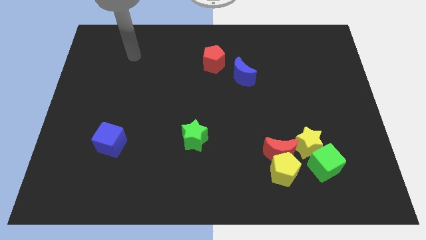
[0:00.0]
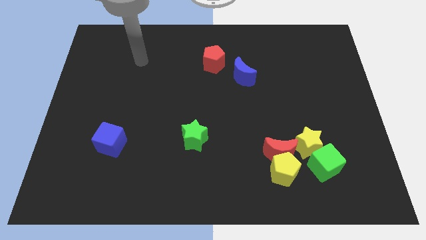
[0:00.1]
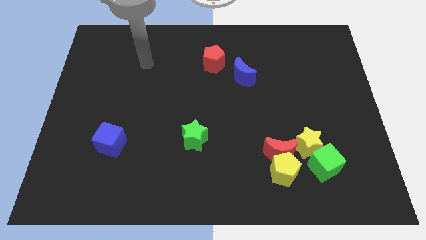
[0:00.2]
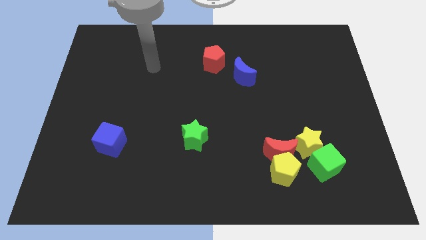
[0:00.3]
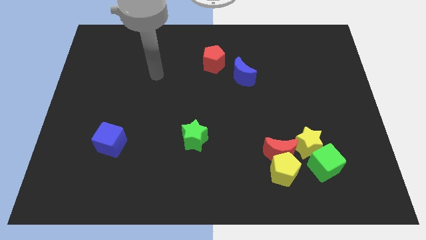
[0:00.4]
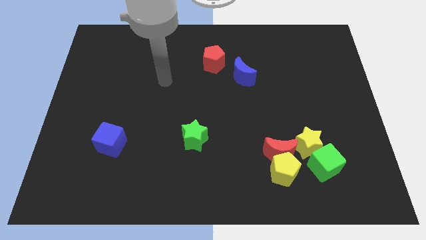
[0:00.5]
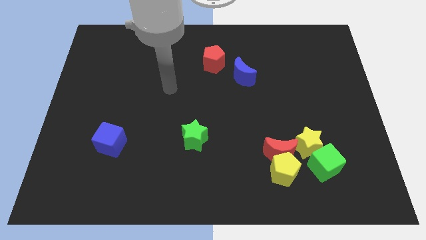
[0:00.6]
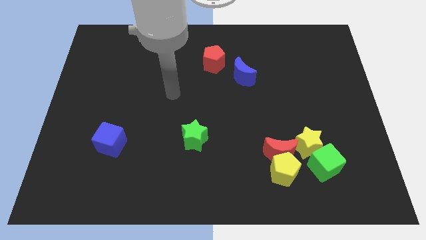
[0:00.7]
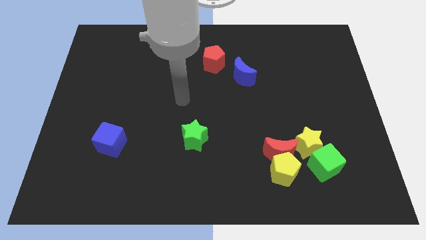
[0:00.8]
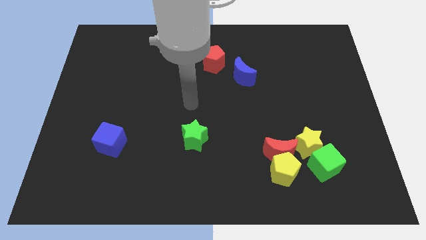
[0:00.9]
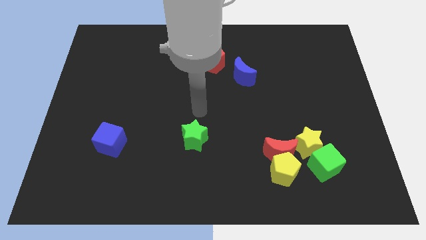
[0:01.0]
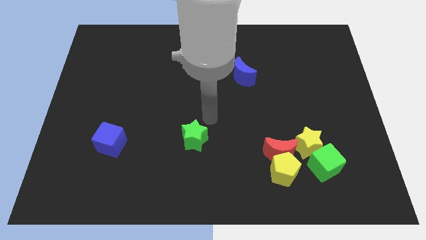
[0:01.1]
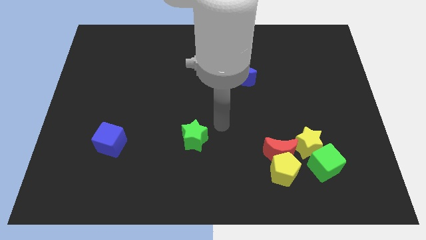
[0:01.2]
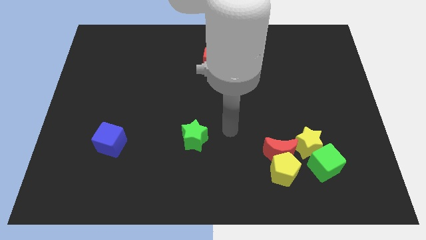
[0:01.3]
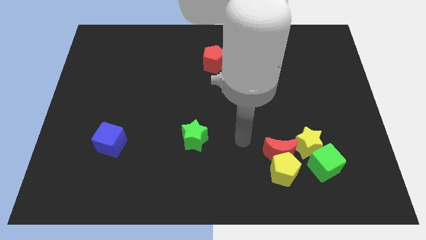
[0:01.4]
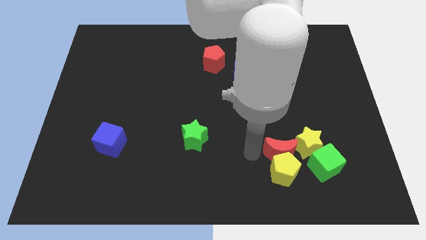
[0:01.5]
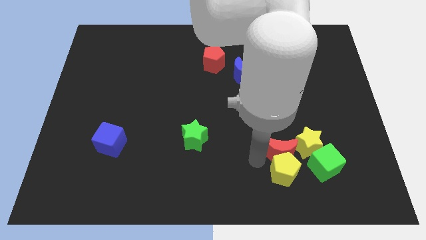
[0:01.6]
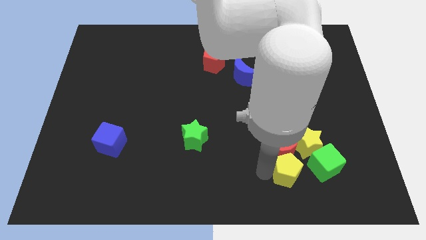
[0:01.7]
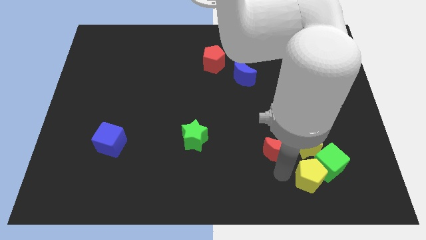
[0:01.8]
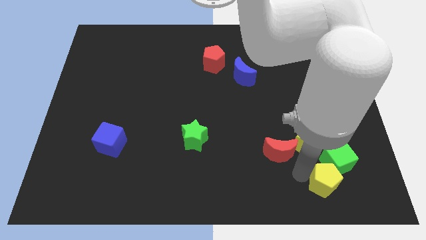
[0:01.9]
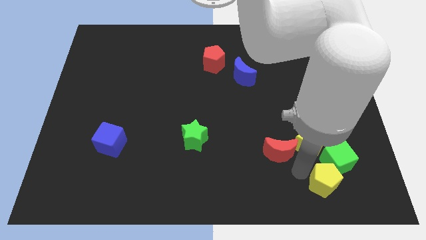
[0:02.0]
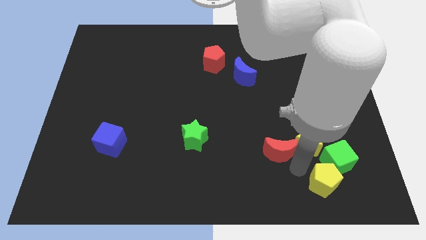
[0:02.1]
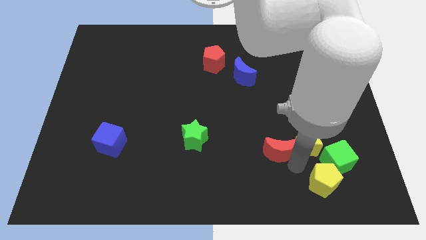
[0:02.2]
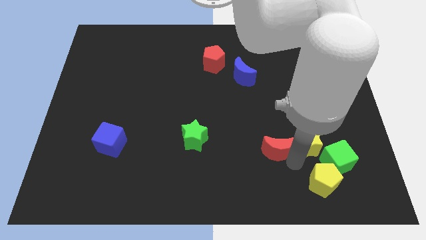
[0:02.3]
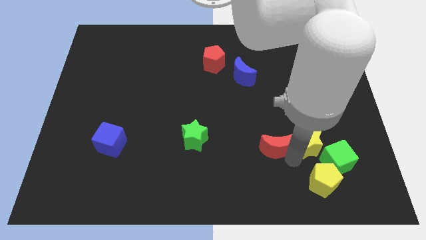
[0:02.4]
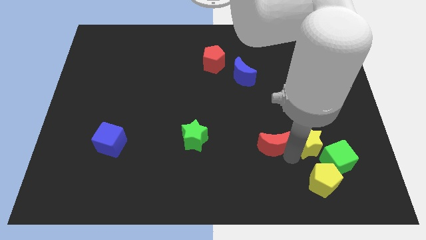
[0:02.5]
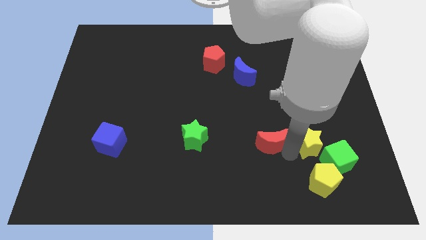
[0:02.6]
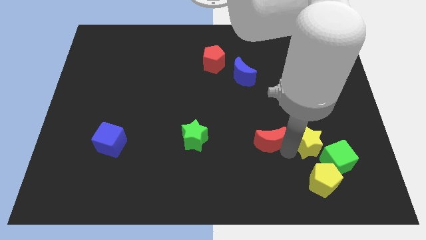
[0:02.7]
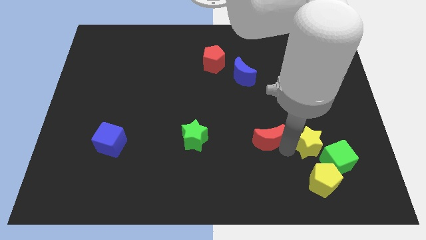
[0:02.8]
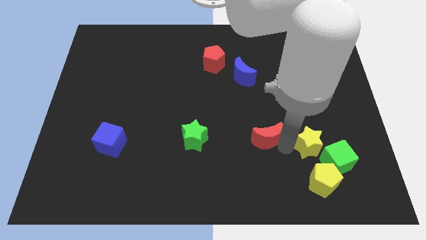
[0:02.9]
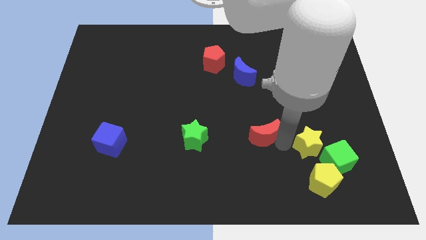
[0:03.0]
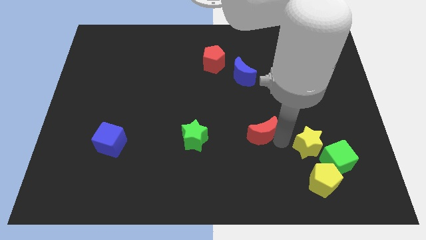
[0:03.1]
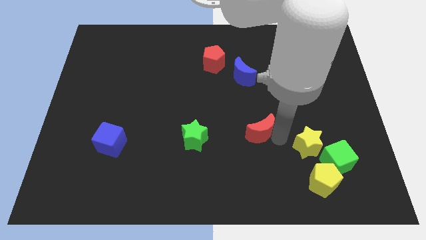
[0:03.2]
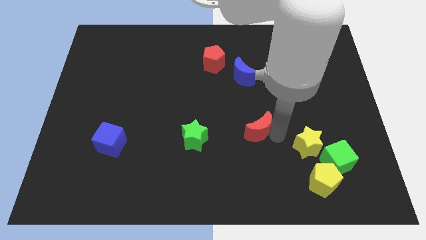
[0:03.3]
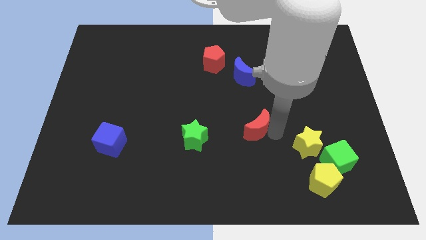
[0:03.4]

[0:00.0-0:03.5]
move the red moon somewhat upwards and to the left diagonally

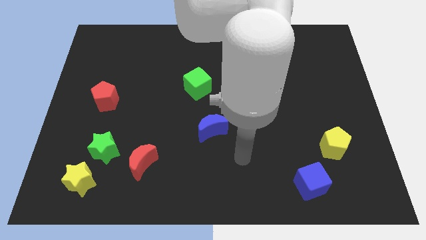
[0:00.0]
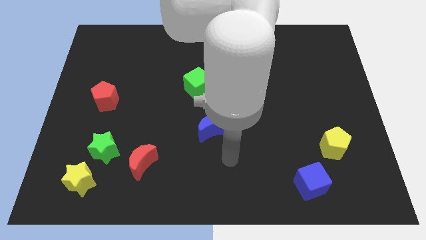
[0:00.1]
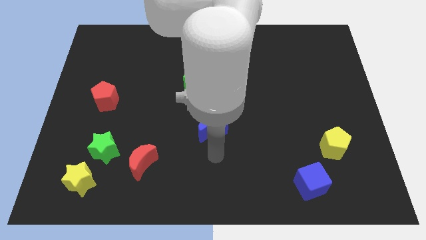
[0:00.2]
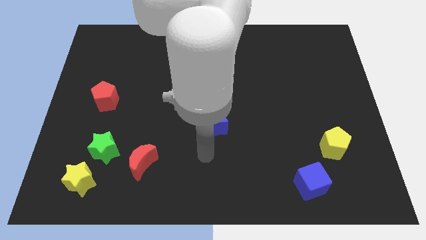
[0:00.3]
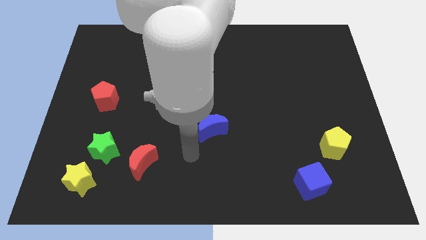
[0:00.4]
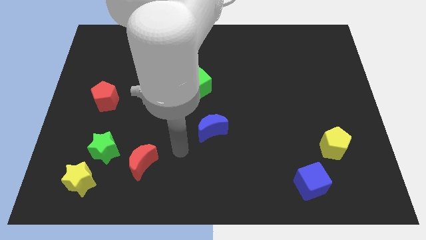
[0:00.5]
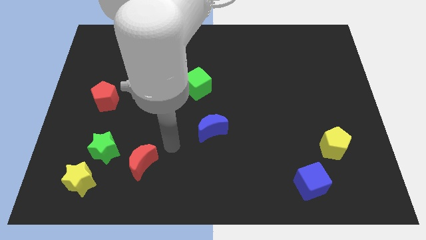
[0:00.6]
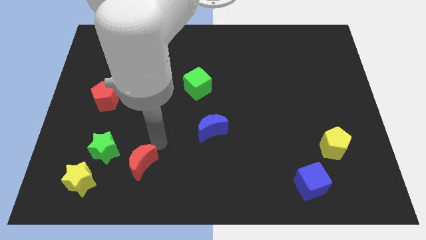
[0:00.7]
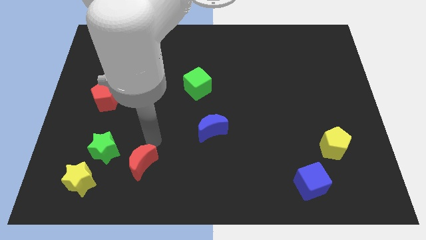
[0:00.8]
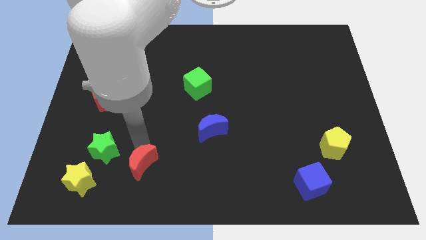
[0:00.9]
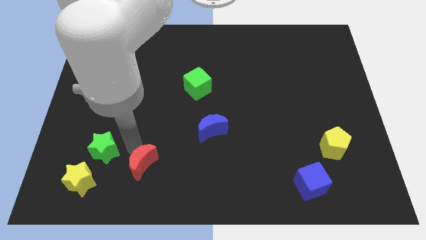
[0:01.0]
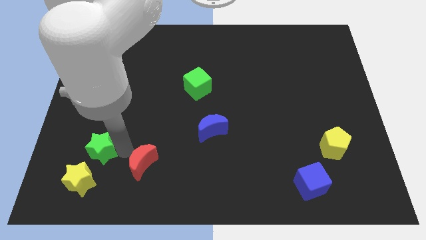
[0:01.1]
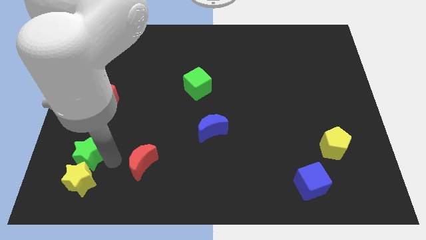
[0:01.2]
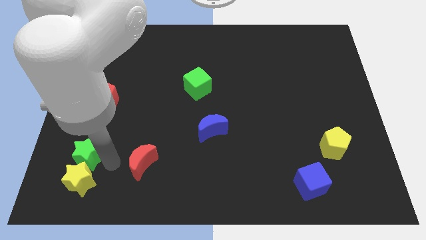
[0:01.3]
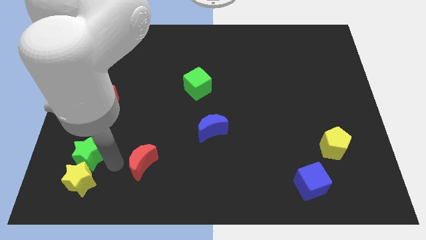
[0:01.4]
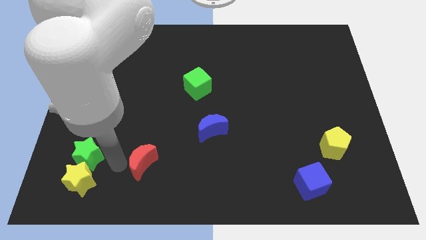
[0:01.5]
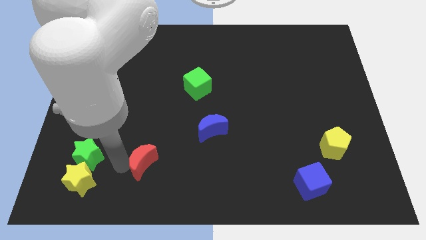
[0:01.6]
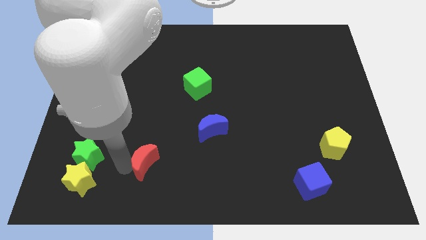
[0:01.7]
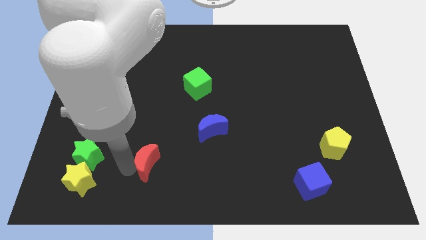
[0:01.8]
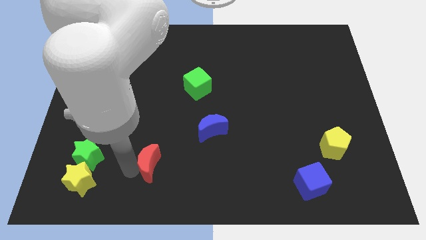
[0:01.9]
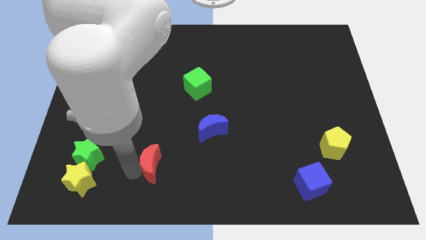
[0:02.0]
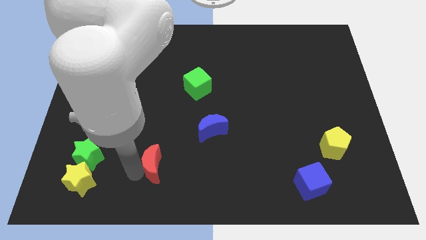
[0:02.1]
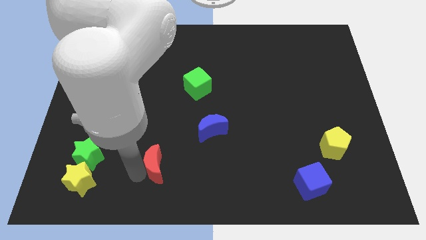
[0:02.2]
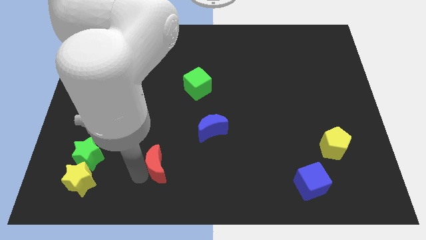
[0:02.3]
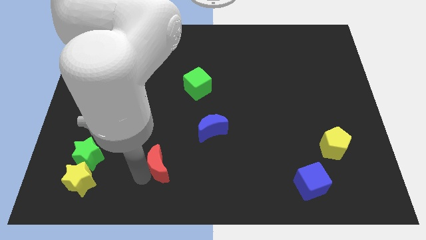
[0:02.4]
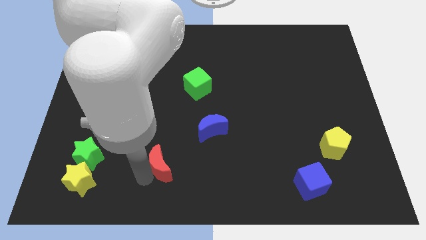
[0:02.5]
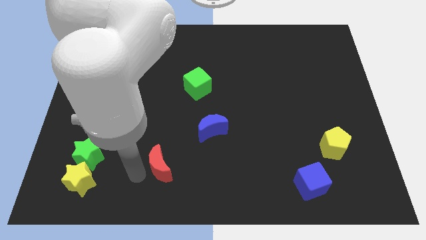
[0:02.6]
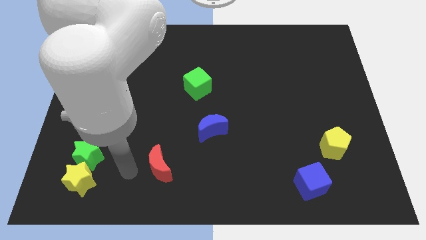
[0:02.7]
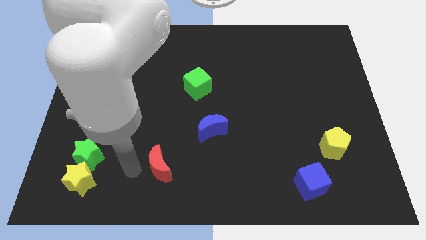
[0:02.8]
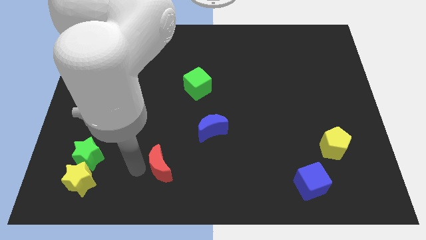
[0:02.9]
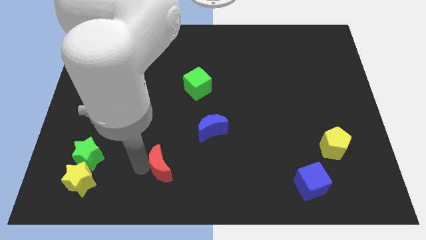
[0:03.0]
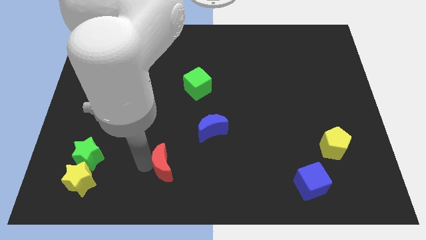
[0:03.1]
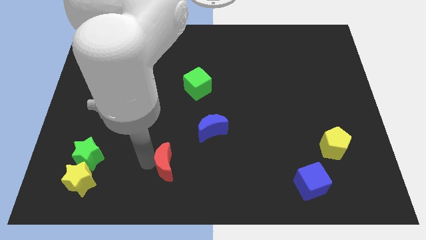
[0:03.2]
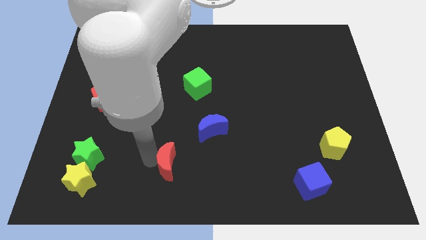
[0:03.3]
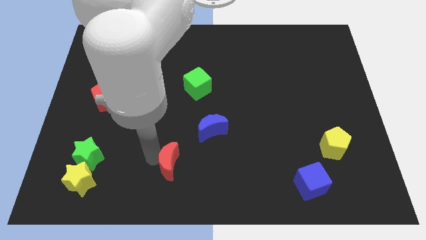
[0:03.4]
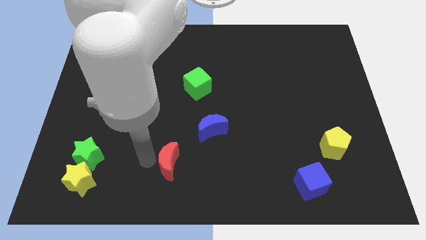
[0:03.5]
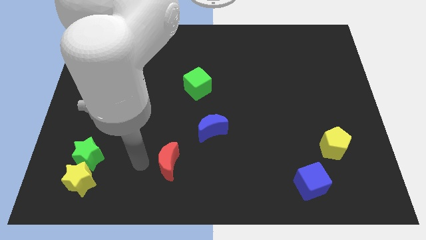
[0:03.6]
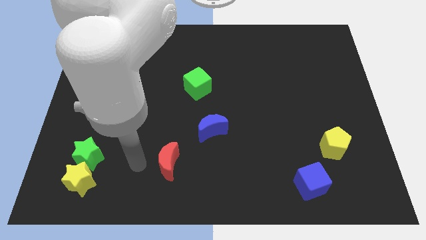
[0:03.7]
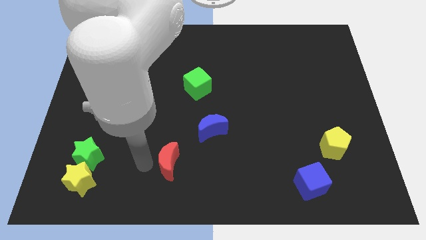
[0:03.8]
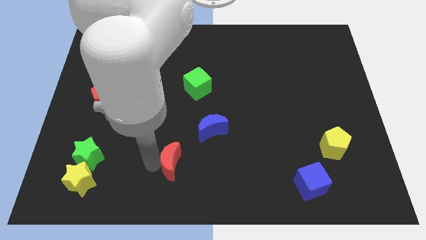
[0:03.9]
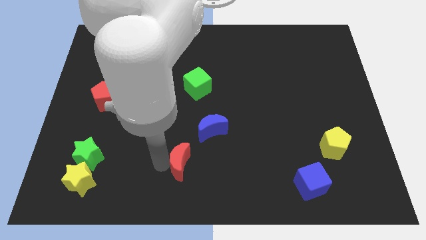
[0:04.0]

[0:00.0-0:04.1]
slide the red moon a bit to the right

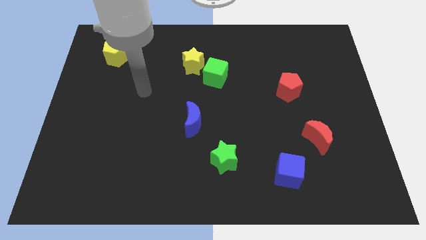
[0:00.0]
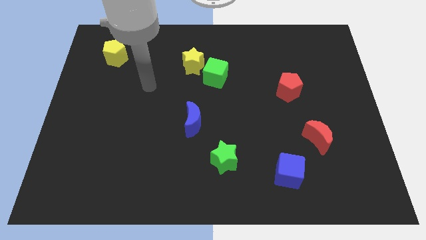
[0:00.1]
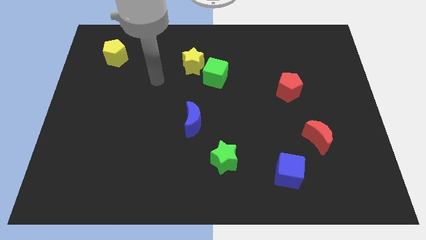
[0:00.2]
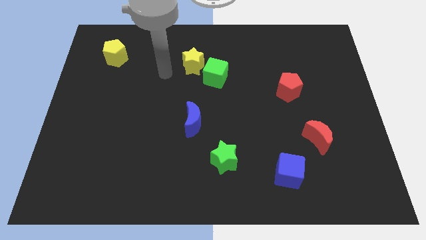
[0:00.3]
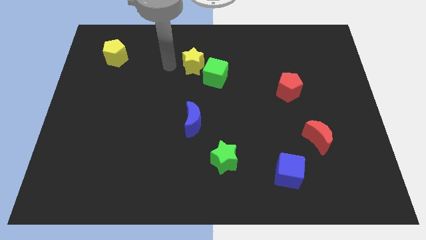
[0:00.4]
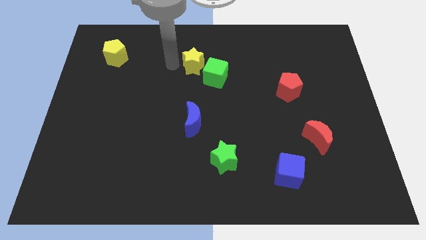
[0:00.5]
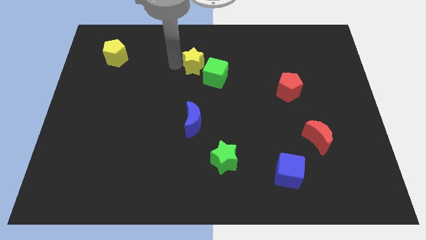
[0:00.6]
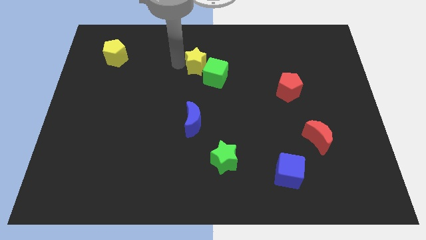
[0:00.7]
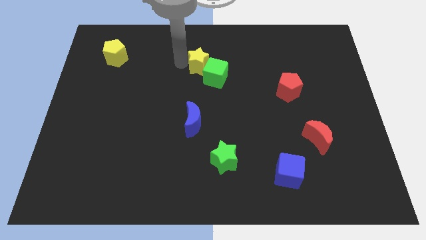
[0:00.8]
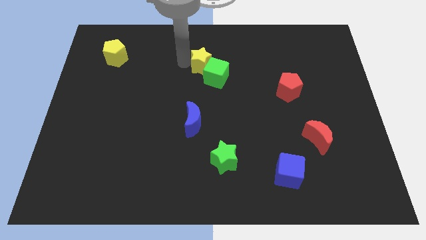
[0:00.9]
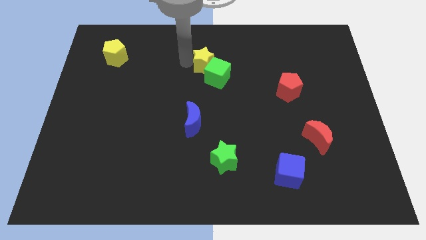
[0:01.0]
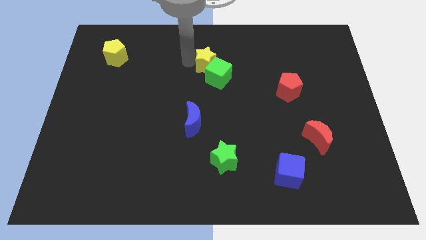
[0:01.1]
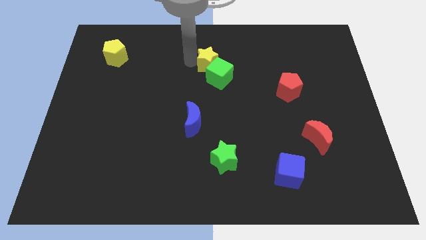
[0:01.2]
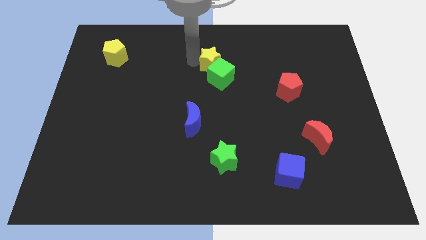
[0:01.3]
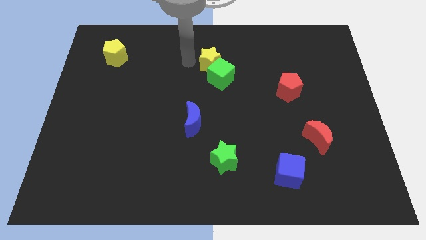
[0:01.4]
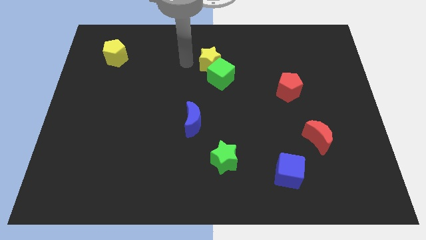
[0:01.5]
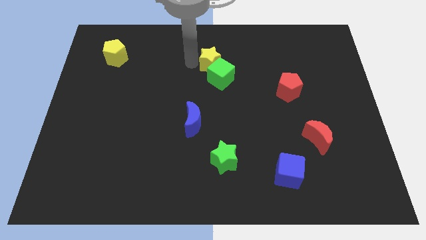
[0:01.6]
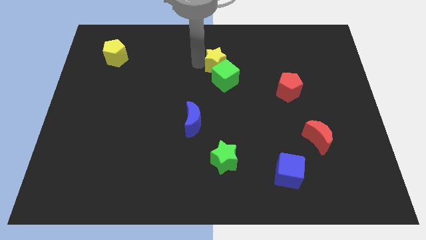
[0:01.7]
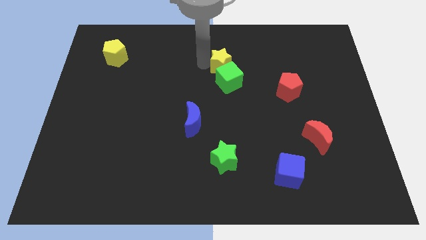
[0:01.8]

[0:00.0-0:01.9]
slightly slide the yellow star right
